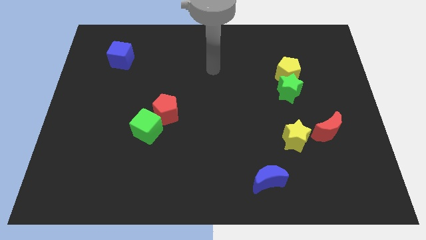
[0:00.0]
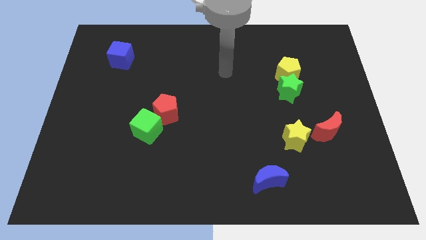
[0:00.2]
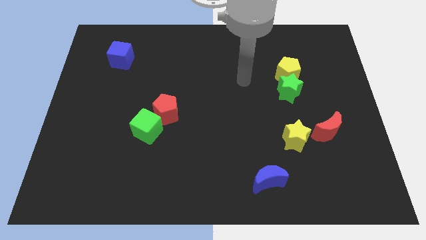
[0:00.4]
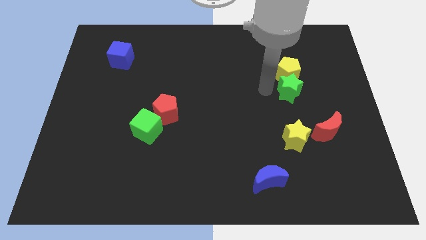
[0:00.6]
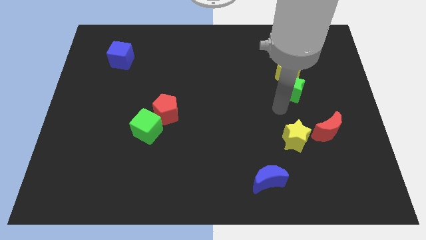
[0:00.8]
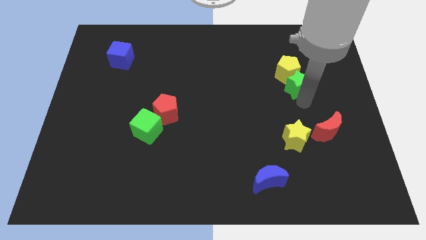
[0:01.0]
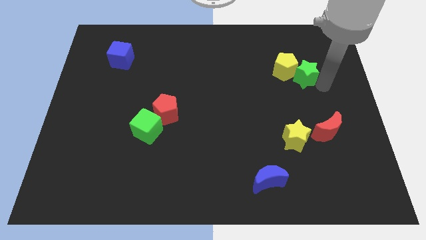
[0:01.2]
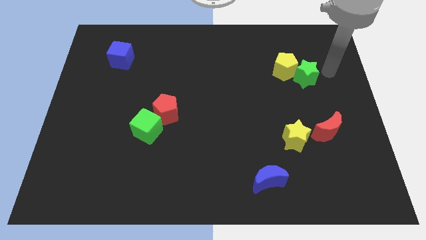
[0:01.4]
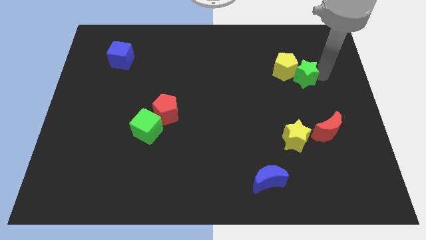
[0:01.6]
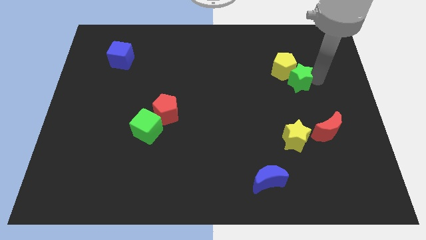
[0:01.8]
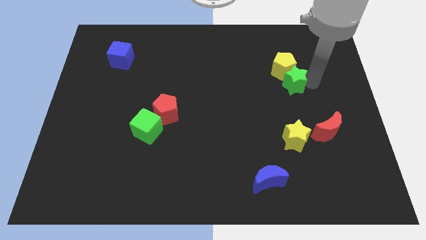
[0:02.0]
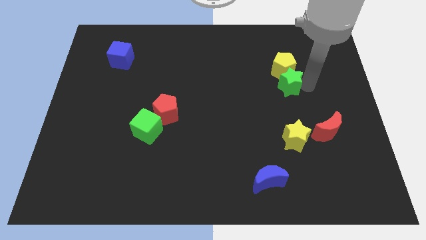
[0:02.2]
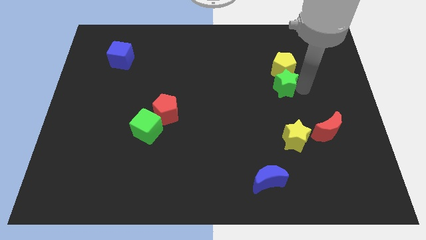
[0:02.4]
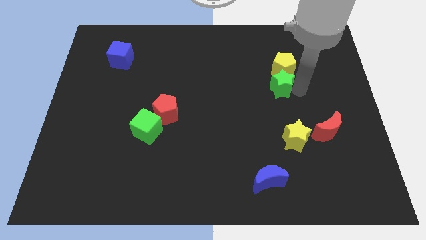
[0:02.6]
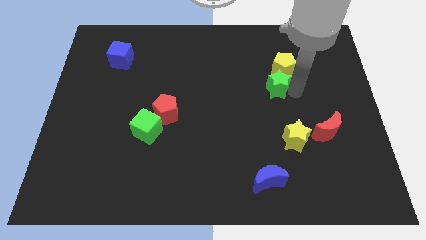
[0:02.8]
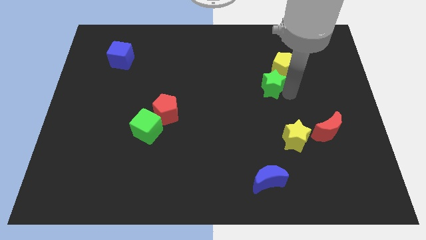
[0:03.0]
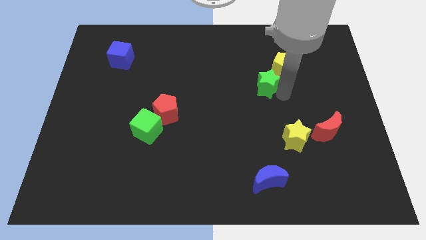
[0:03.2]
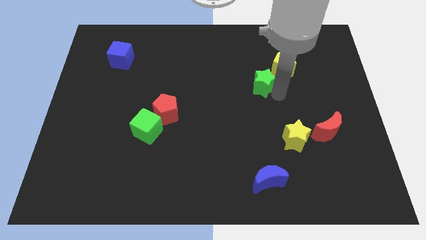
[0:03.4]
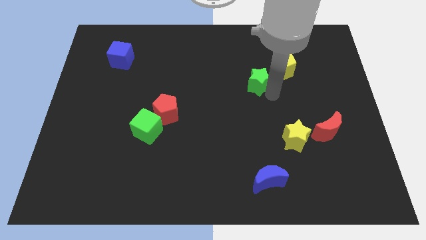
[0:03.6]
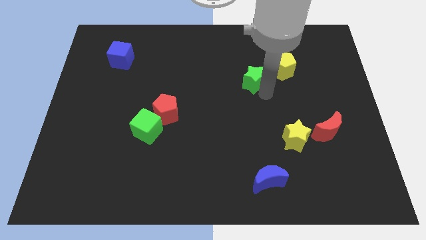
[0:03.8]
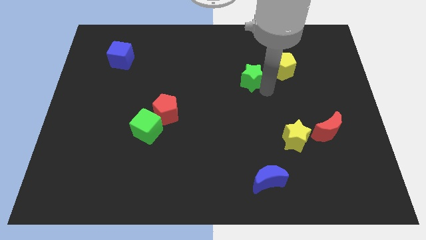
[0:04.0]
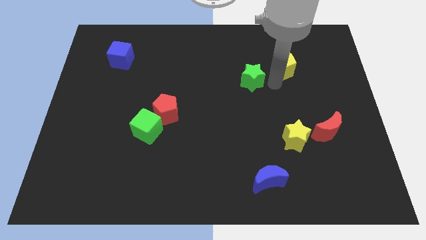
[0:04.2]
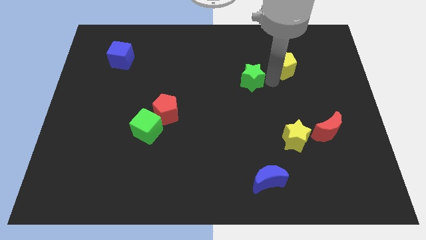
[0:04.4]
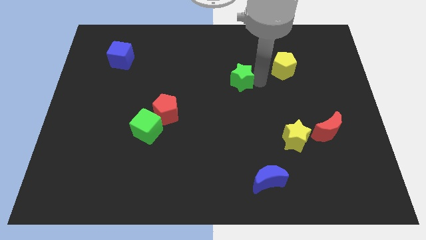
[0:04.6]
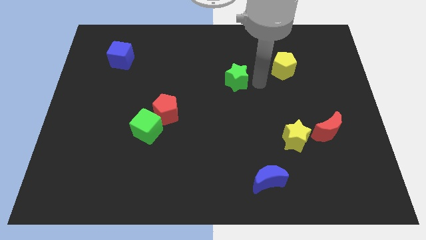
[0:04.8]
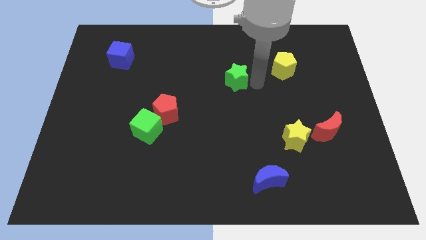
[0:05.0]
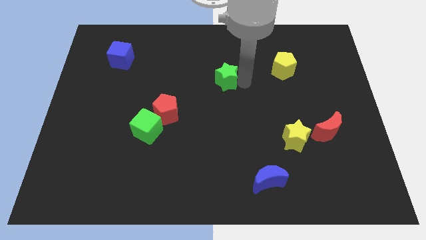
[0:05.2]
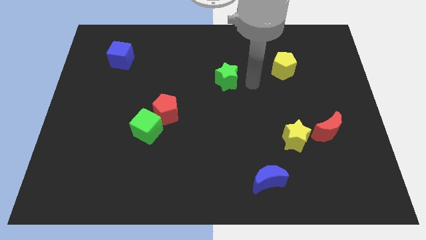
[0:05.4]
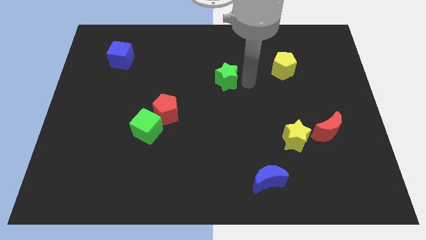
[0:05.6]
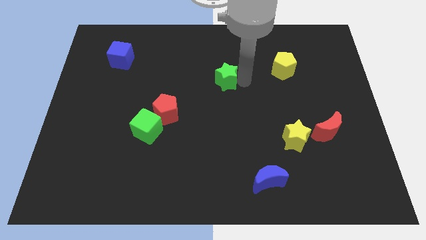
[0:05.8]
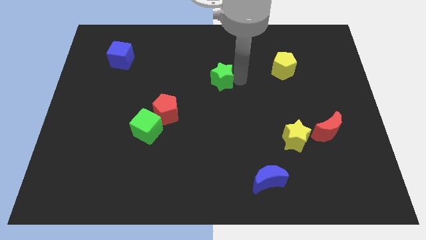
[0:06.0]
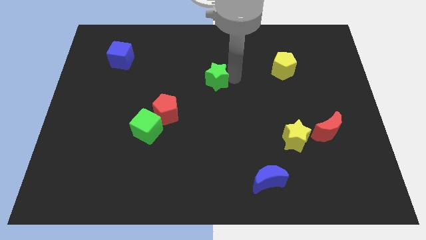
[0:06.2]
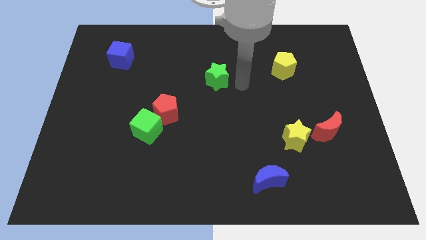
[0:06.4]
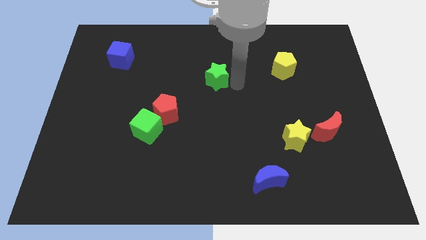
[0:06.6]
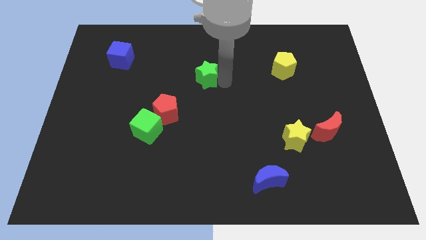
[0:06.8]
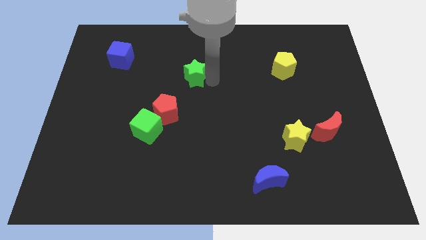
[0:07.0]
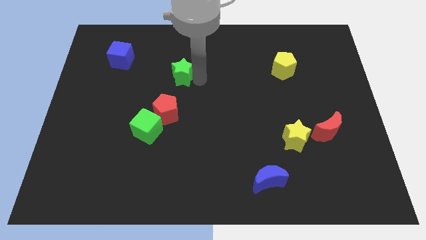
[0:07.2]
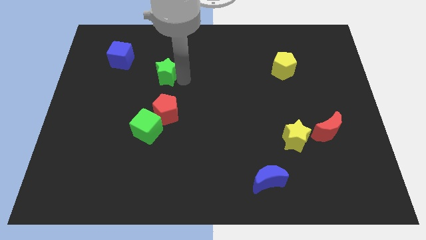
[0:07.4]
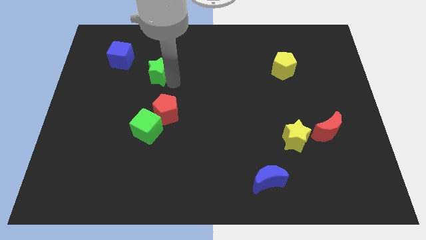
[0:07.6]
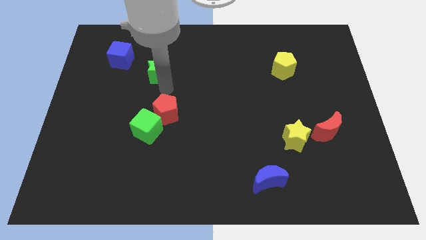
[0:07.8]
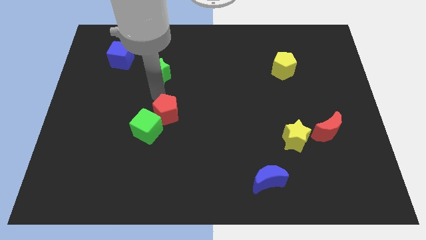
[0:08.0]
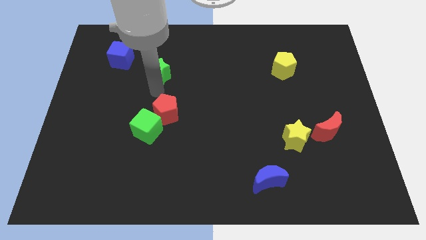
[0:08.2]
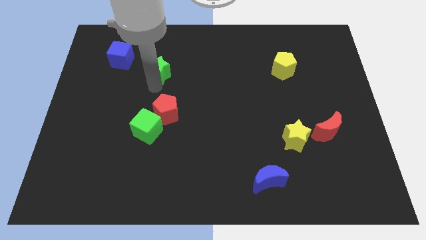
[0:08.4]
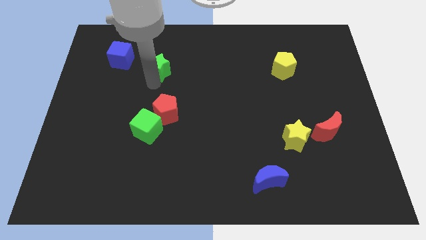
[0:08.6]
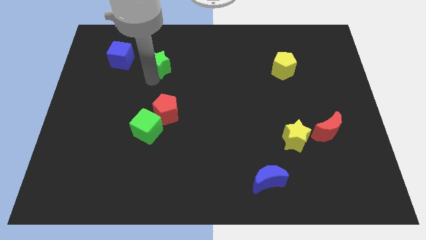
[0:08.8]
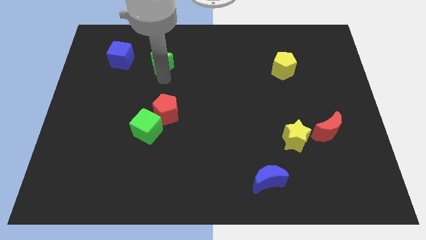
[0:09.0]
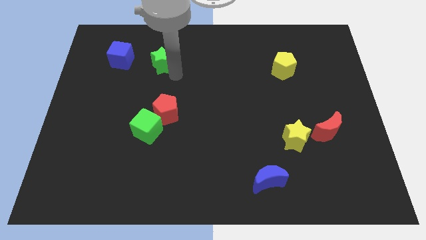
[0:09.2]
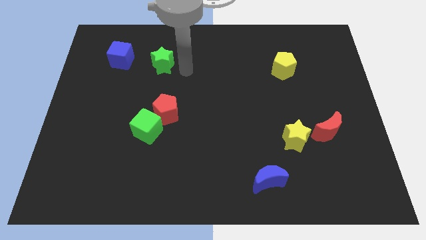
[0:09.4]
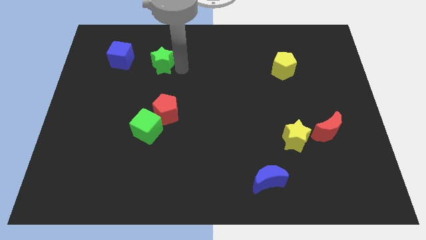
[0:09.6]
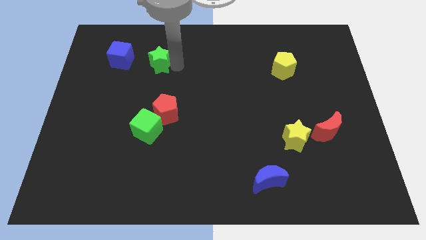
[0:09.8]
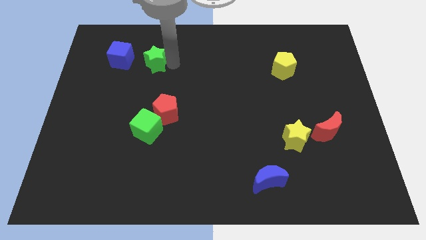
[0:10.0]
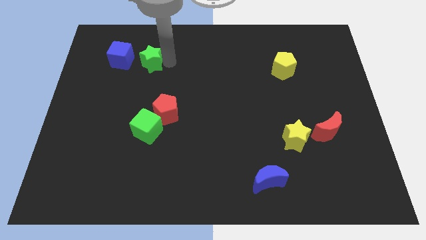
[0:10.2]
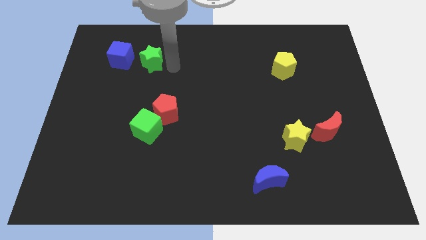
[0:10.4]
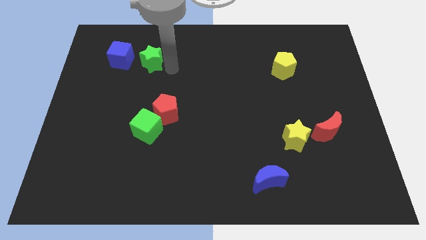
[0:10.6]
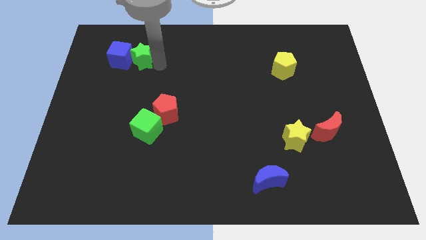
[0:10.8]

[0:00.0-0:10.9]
put the green star to the blue cube

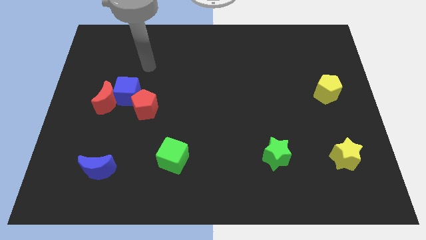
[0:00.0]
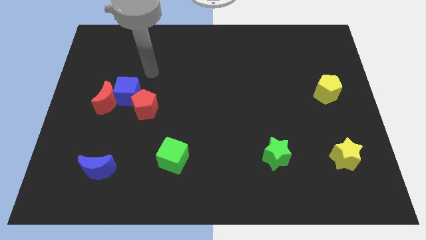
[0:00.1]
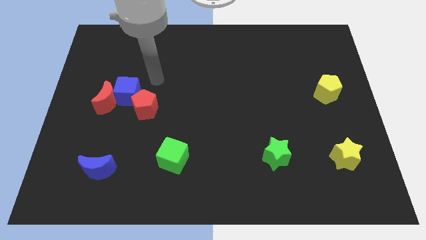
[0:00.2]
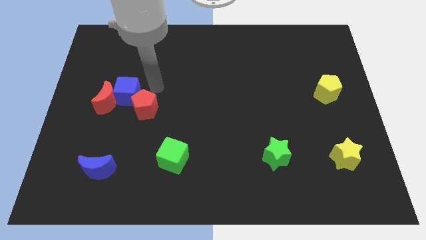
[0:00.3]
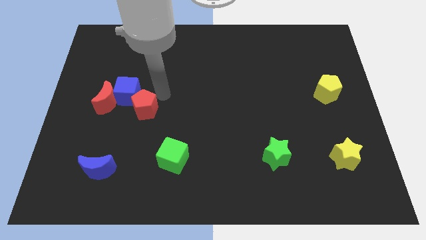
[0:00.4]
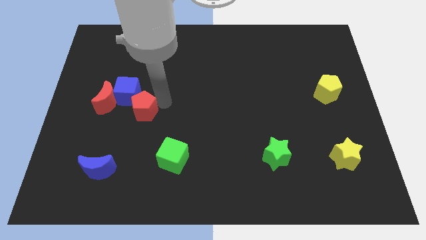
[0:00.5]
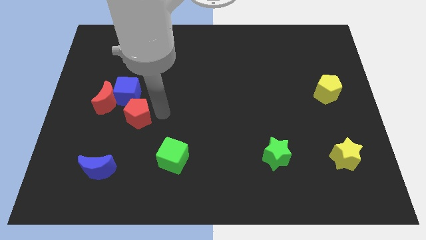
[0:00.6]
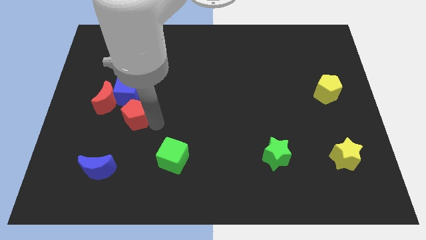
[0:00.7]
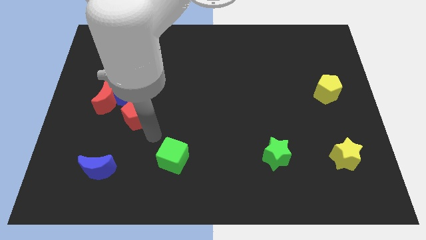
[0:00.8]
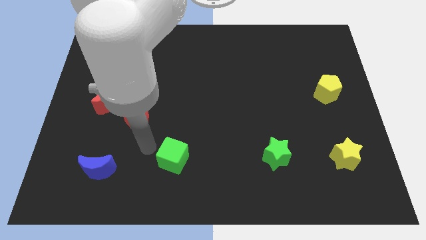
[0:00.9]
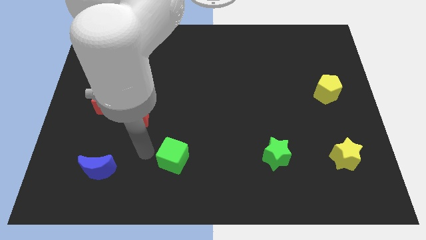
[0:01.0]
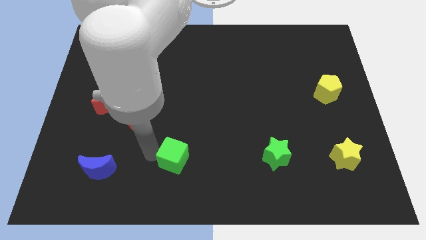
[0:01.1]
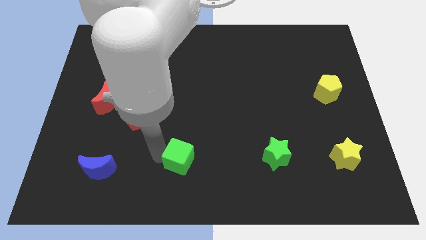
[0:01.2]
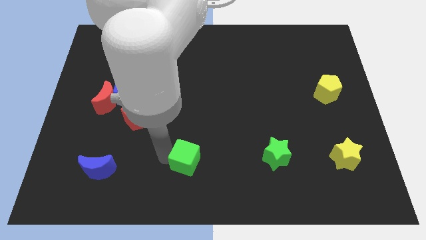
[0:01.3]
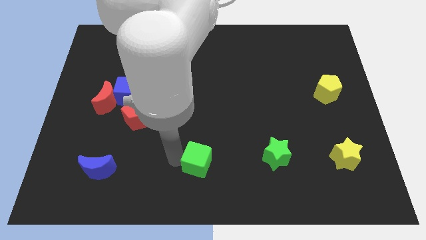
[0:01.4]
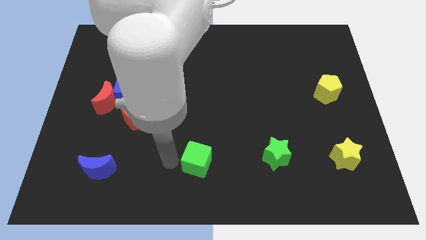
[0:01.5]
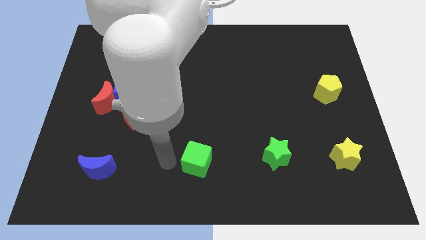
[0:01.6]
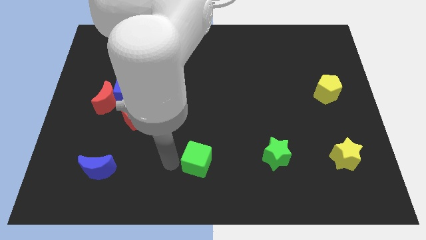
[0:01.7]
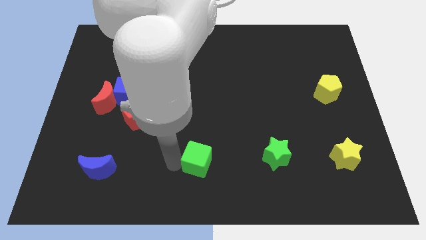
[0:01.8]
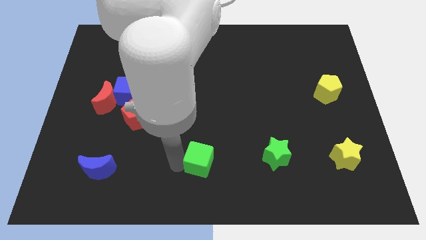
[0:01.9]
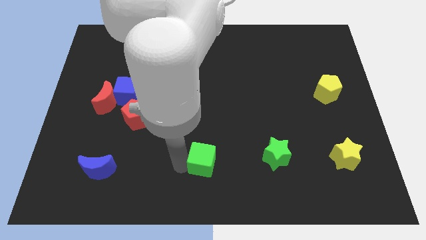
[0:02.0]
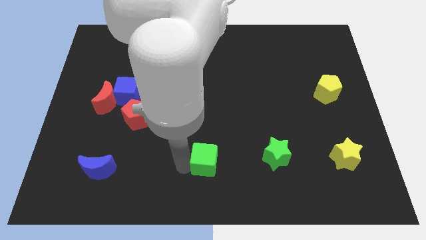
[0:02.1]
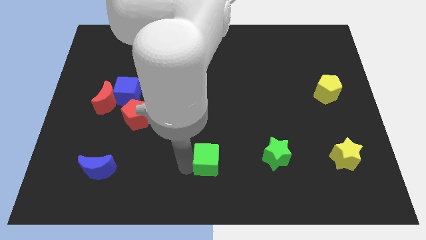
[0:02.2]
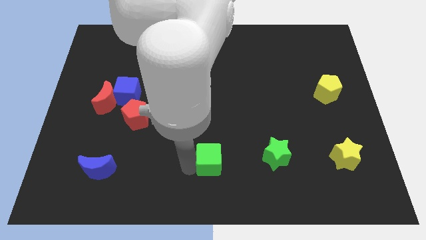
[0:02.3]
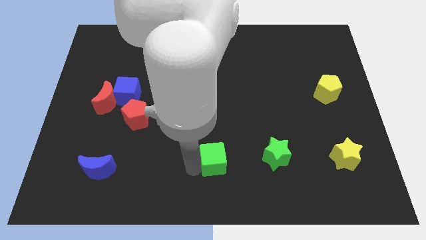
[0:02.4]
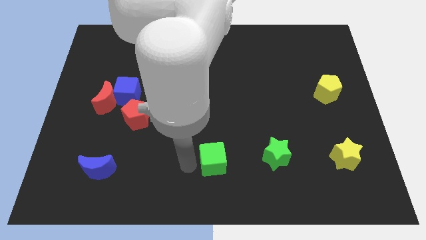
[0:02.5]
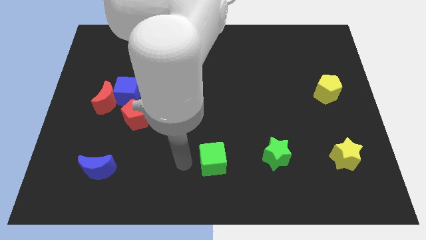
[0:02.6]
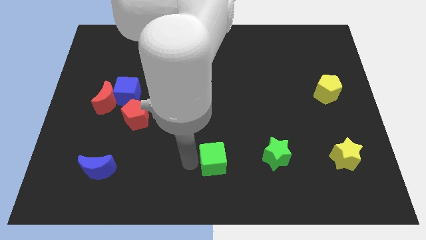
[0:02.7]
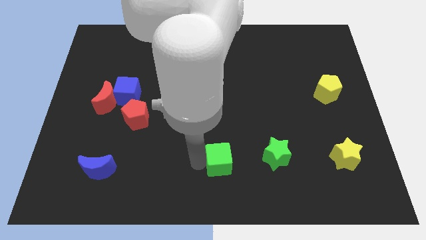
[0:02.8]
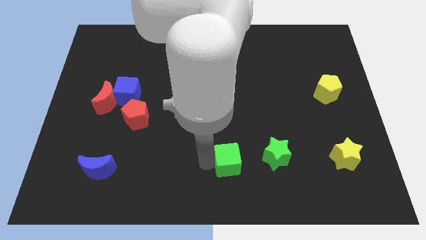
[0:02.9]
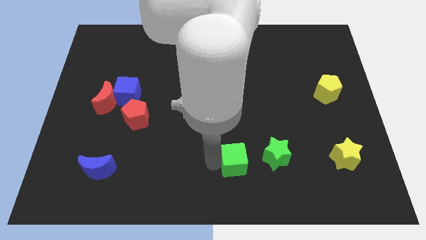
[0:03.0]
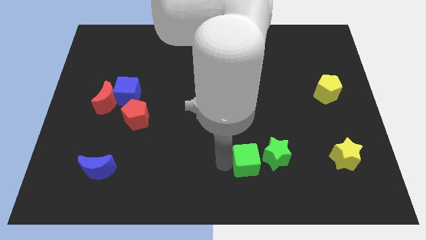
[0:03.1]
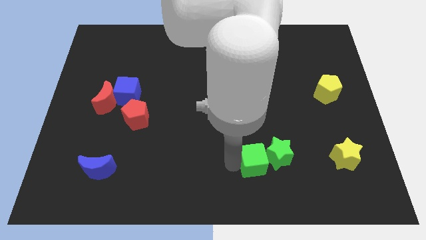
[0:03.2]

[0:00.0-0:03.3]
move the green cube next to the green star
